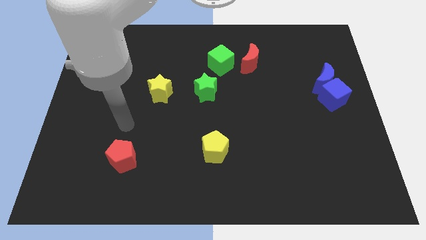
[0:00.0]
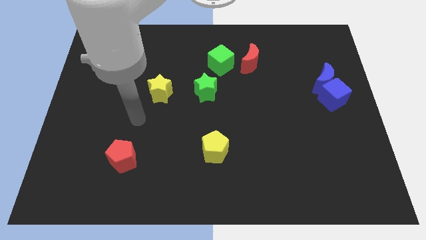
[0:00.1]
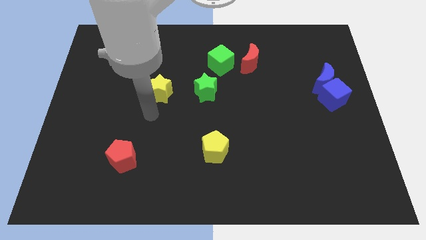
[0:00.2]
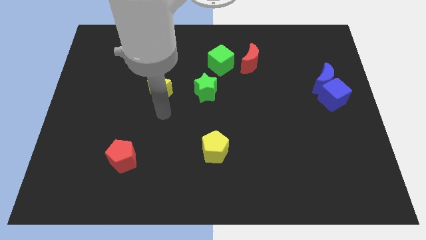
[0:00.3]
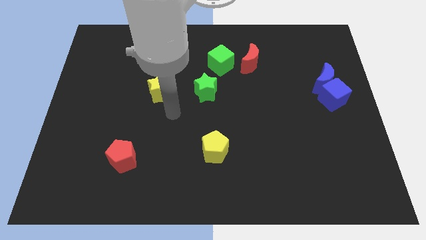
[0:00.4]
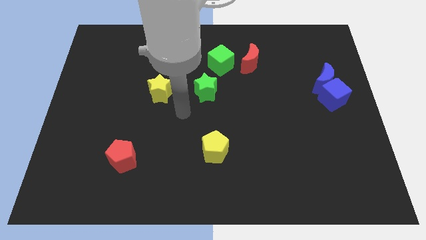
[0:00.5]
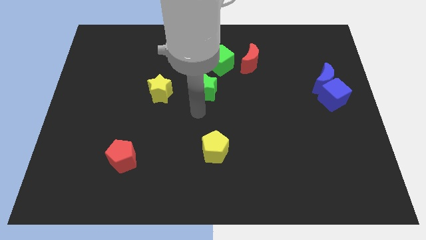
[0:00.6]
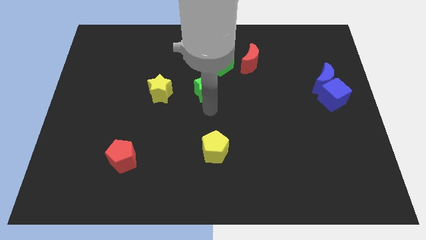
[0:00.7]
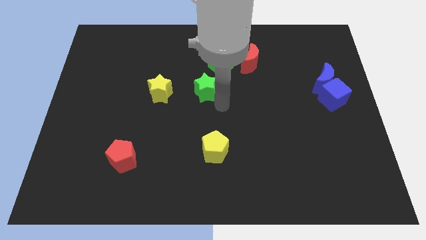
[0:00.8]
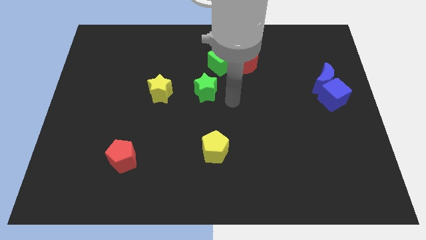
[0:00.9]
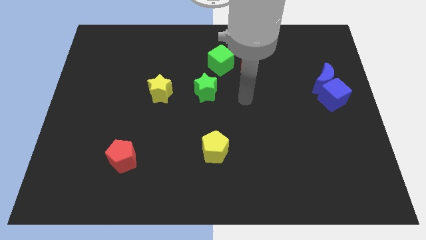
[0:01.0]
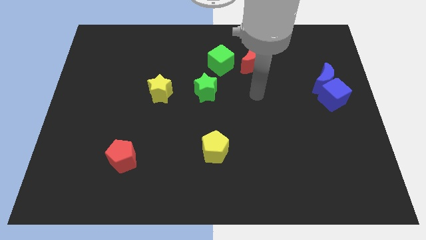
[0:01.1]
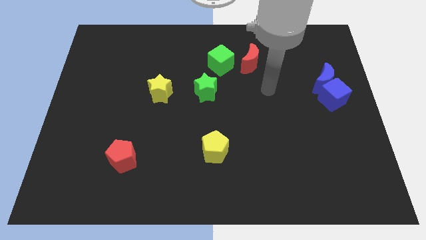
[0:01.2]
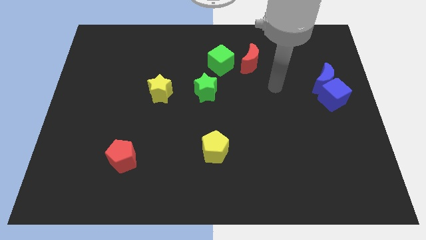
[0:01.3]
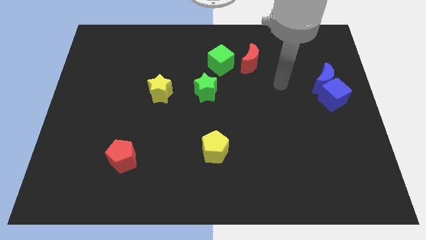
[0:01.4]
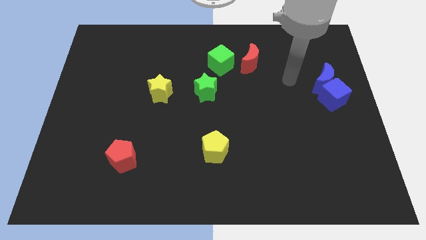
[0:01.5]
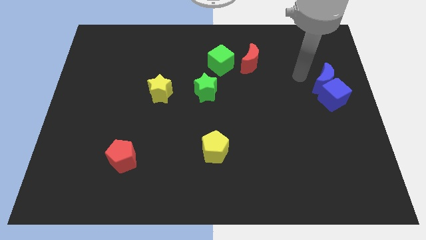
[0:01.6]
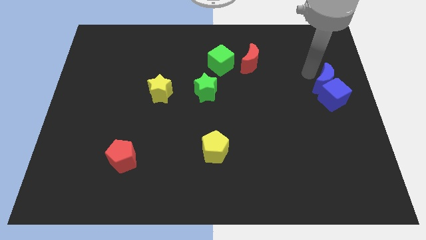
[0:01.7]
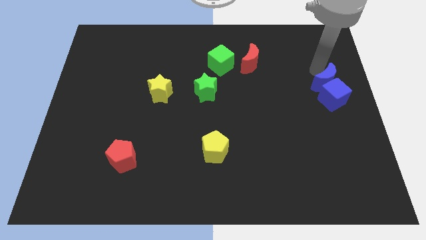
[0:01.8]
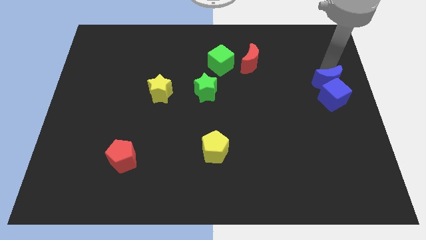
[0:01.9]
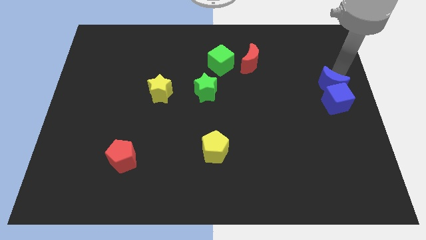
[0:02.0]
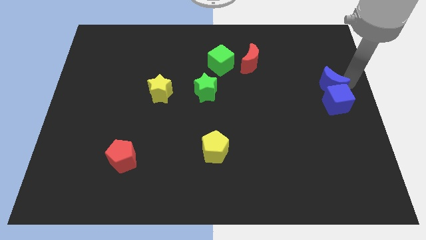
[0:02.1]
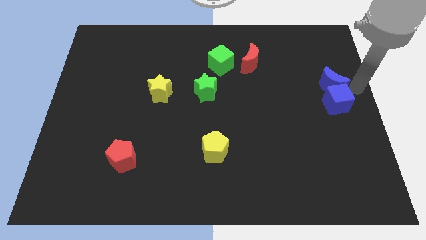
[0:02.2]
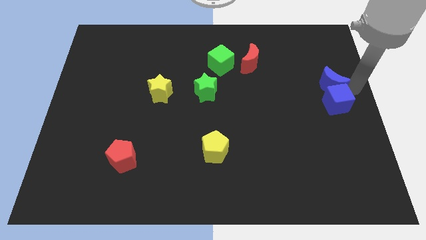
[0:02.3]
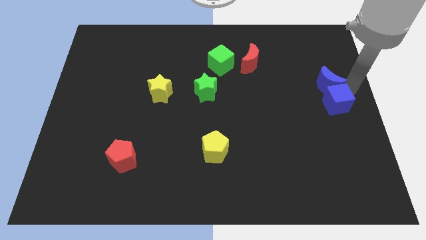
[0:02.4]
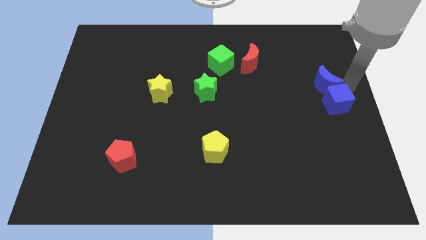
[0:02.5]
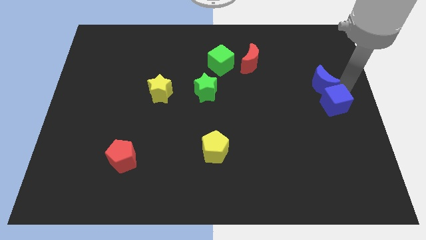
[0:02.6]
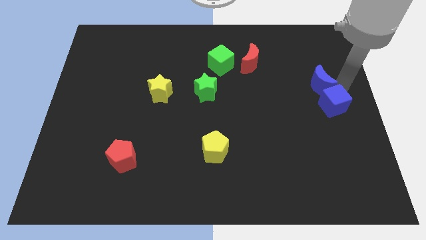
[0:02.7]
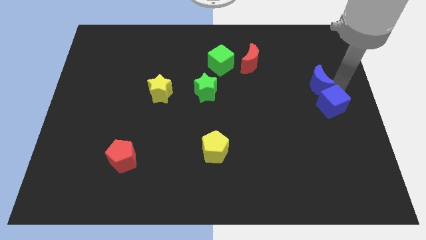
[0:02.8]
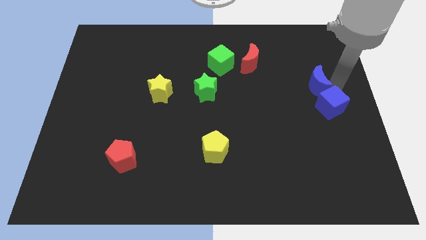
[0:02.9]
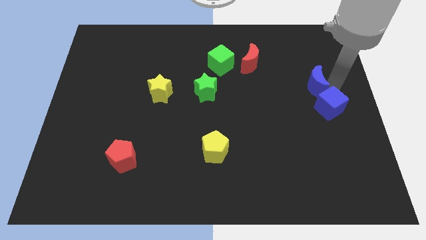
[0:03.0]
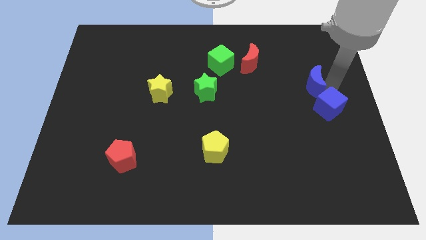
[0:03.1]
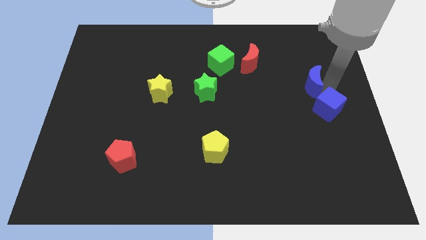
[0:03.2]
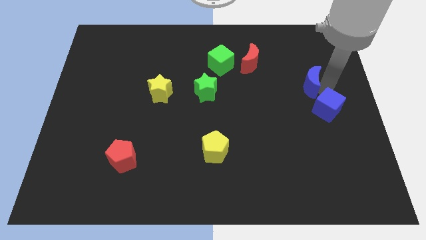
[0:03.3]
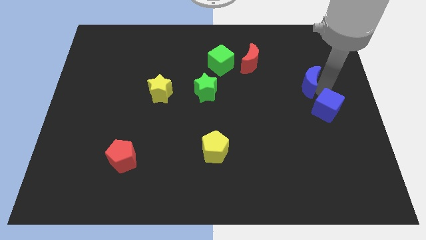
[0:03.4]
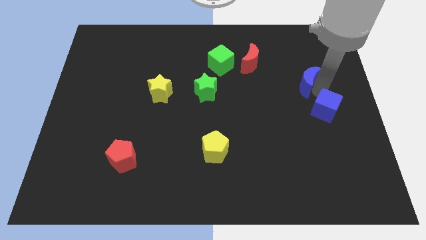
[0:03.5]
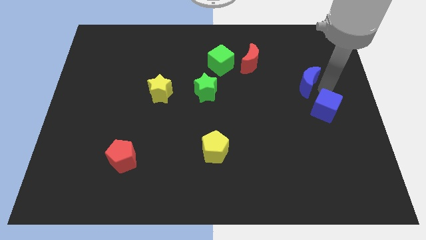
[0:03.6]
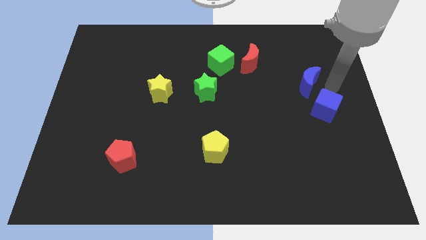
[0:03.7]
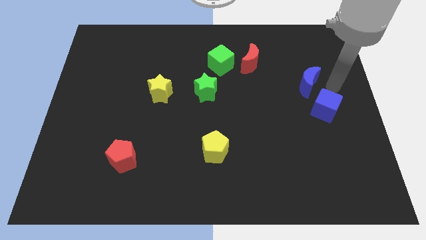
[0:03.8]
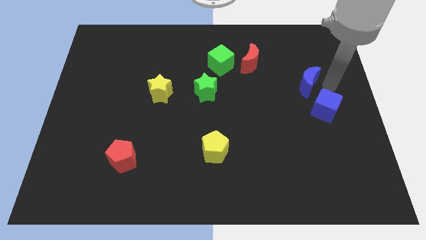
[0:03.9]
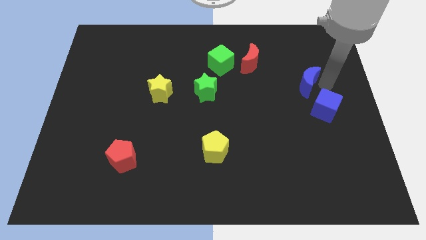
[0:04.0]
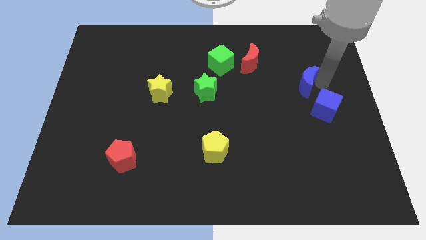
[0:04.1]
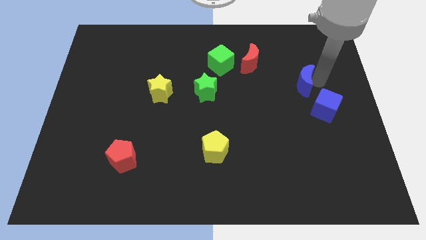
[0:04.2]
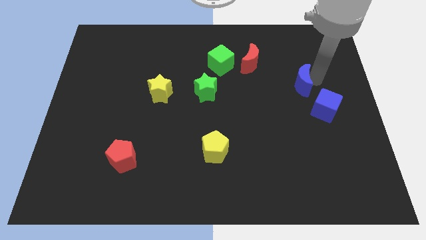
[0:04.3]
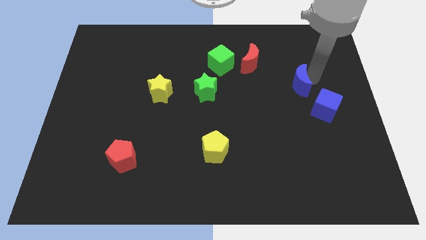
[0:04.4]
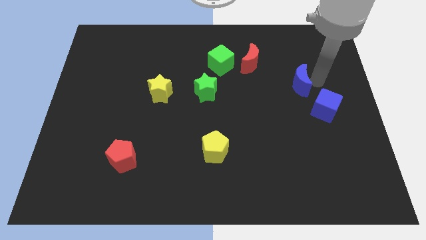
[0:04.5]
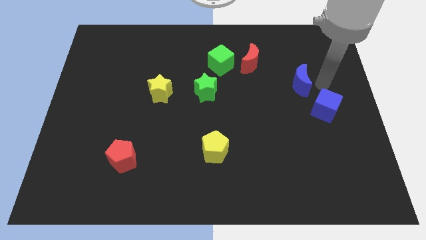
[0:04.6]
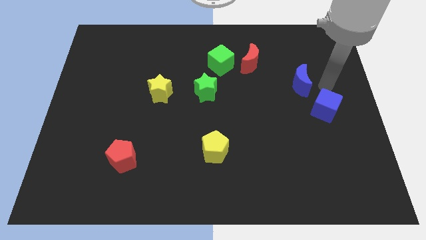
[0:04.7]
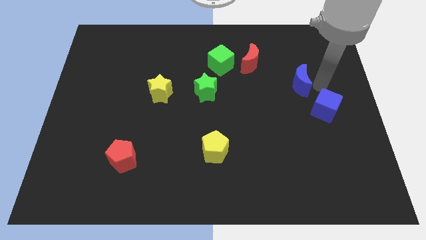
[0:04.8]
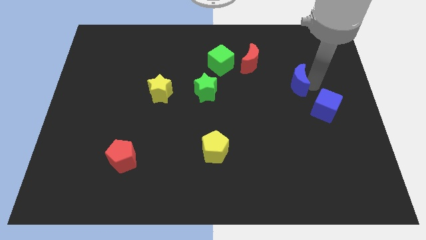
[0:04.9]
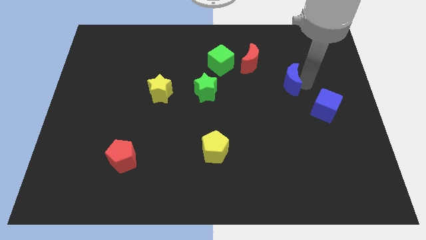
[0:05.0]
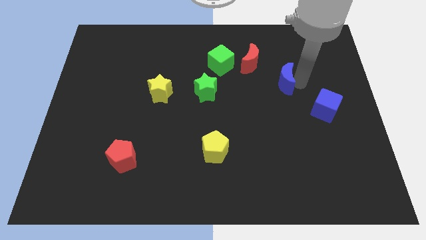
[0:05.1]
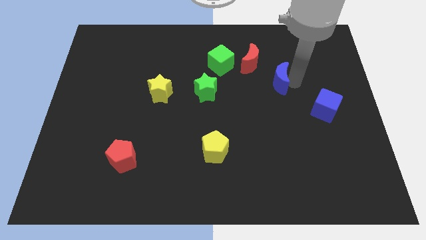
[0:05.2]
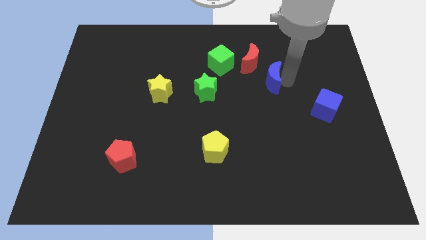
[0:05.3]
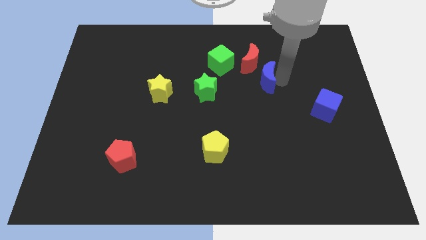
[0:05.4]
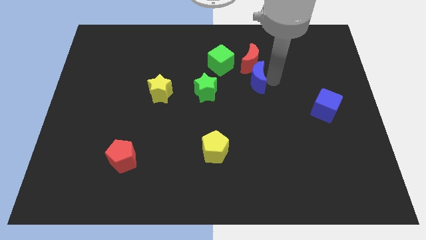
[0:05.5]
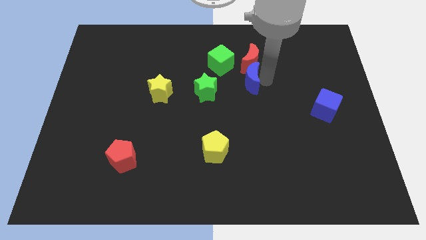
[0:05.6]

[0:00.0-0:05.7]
move the blue moon to the bottom left side of the red moon

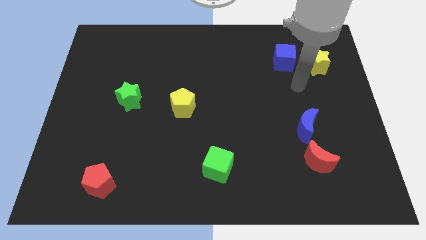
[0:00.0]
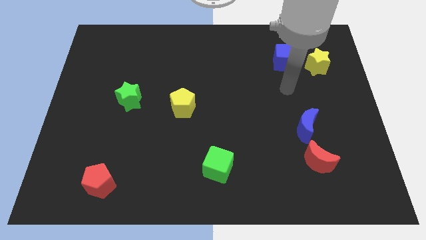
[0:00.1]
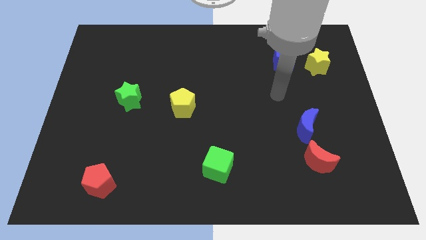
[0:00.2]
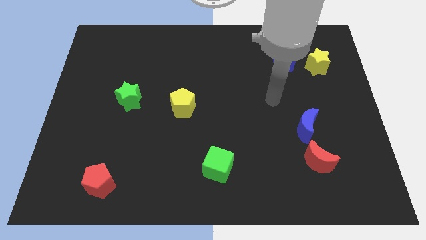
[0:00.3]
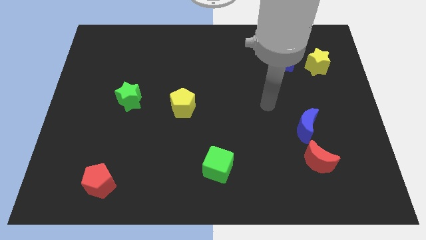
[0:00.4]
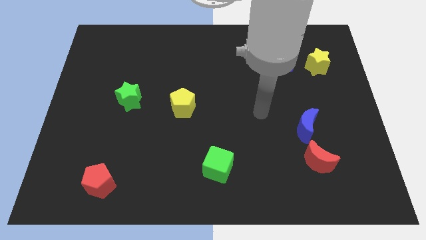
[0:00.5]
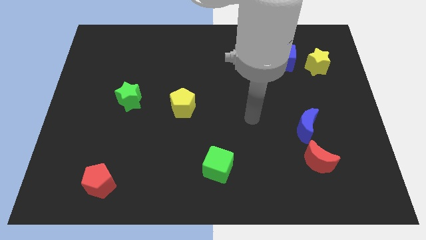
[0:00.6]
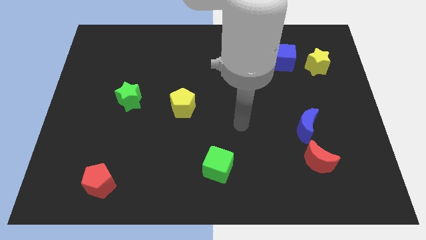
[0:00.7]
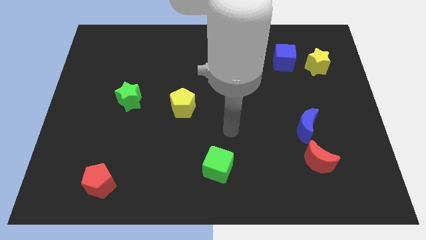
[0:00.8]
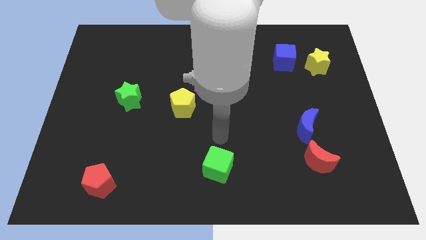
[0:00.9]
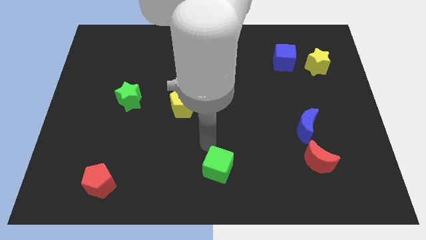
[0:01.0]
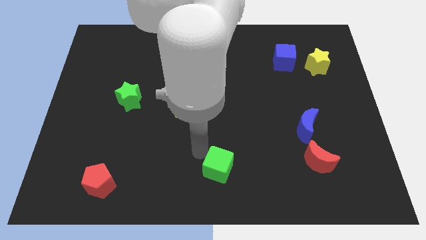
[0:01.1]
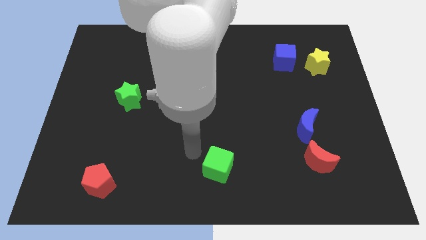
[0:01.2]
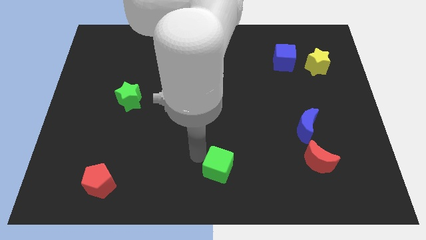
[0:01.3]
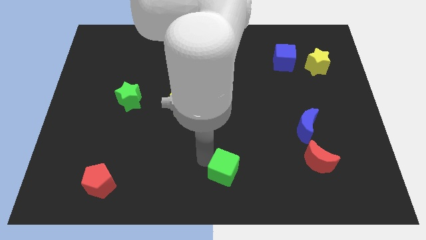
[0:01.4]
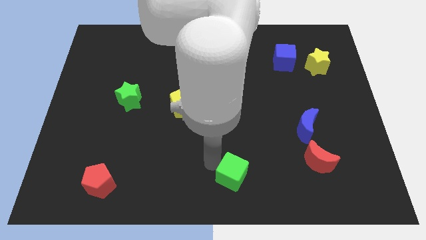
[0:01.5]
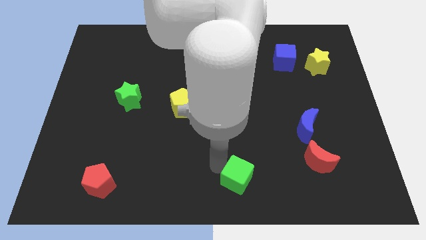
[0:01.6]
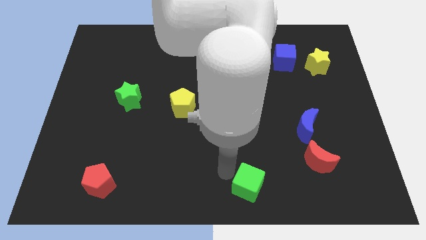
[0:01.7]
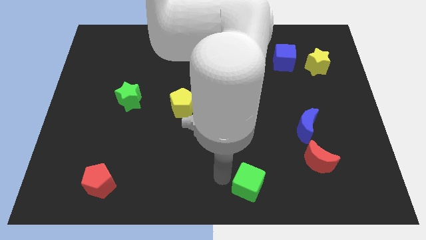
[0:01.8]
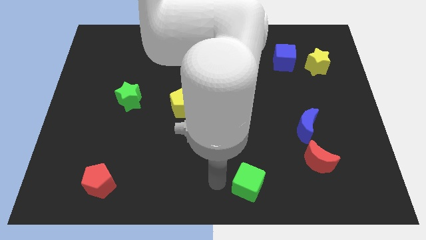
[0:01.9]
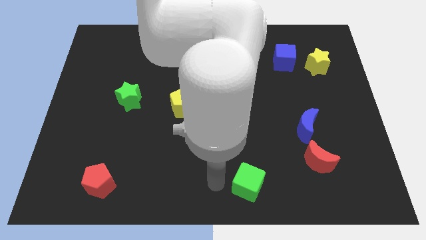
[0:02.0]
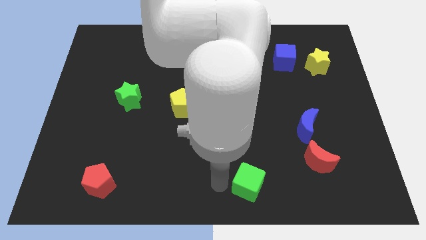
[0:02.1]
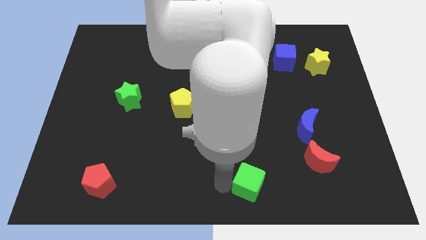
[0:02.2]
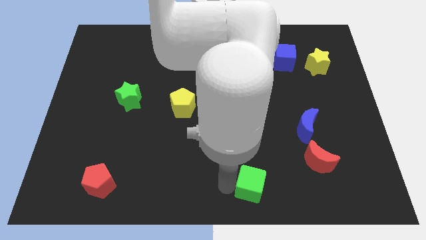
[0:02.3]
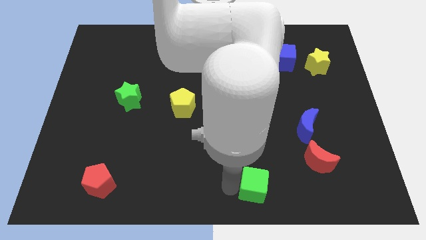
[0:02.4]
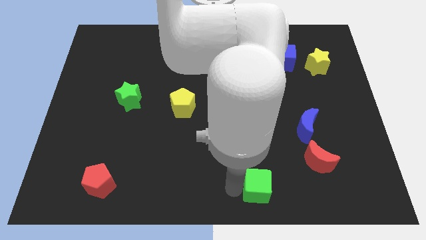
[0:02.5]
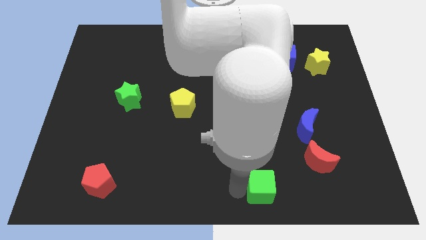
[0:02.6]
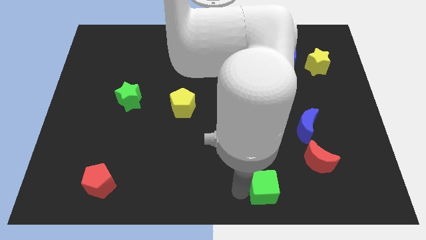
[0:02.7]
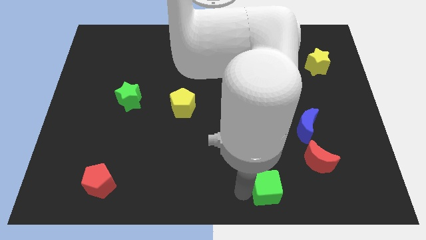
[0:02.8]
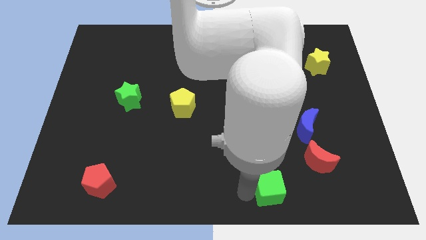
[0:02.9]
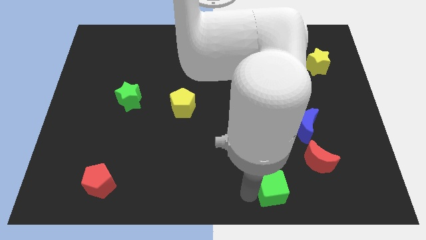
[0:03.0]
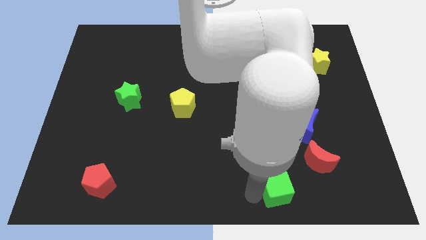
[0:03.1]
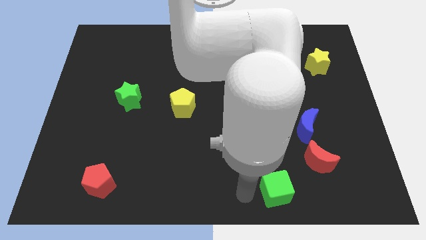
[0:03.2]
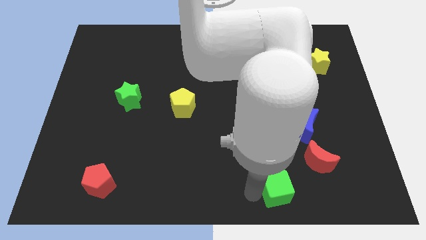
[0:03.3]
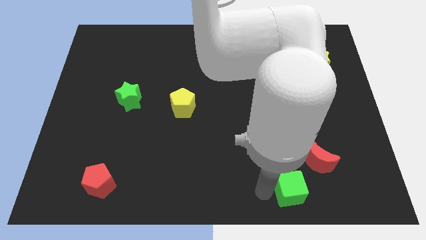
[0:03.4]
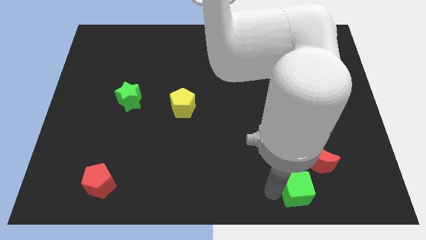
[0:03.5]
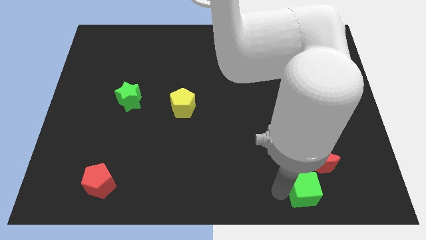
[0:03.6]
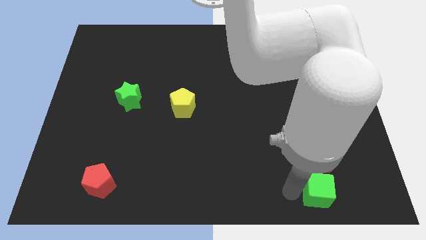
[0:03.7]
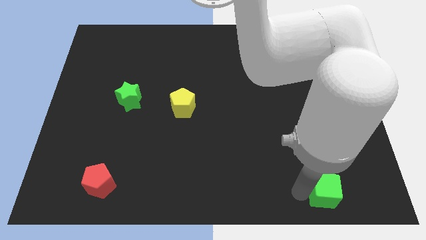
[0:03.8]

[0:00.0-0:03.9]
slide the green cube to the bottom right side of the red moon
